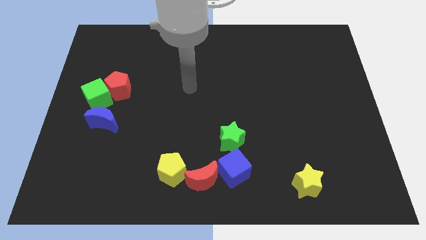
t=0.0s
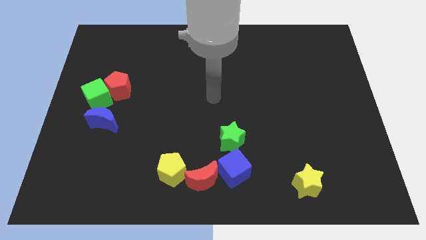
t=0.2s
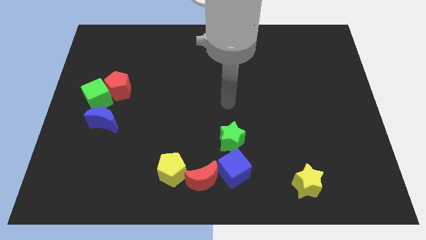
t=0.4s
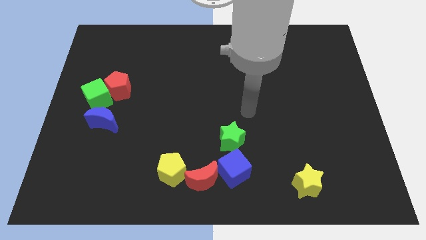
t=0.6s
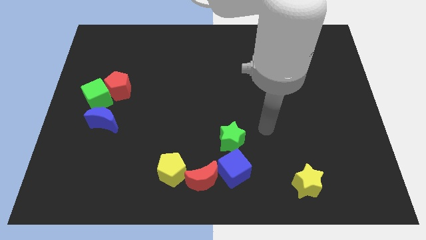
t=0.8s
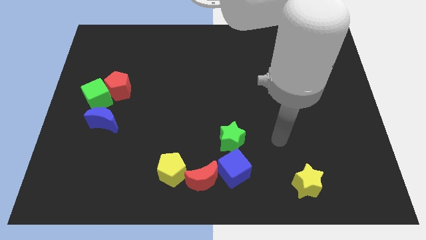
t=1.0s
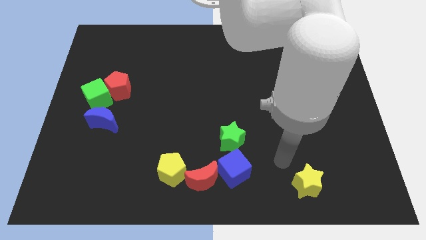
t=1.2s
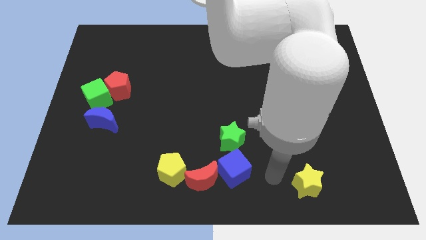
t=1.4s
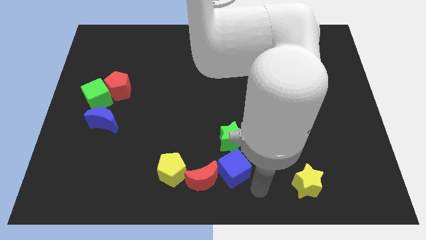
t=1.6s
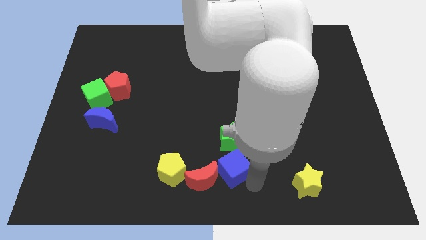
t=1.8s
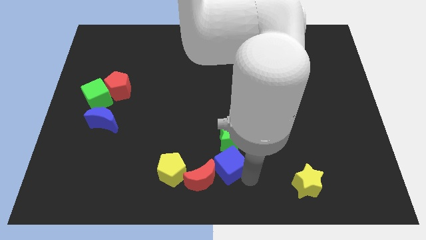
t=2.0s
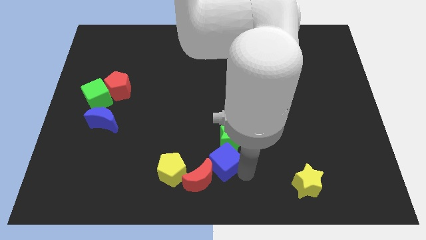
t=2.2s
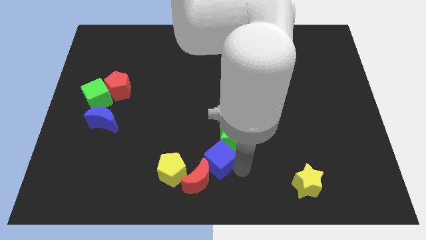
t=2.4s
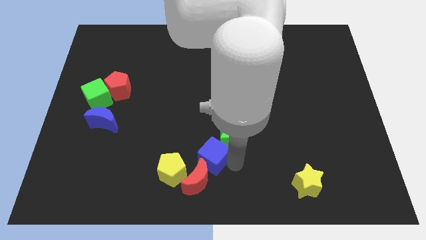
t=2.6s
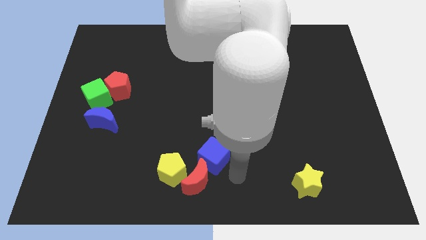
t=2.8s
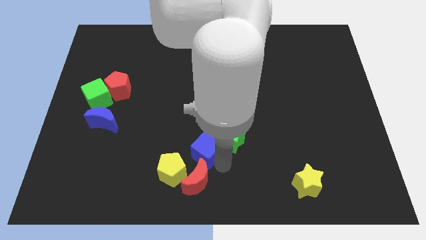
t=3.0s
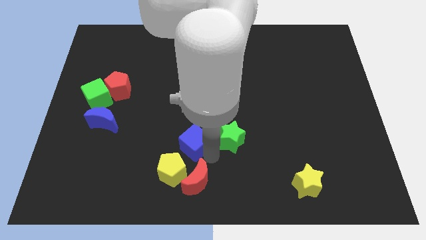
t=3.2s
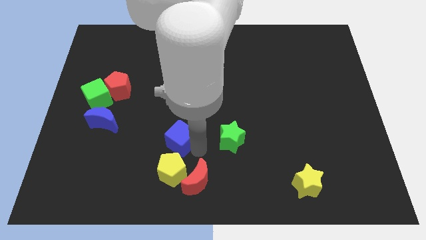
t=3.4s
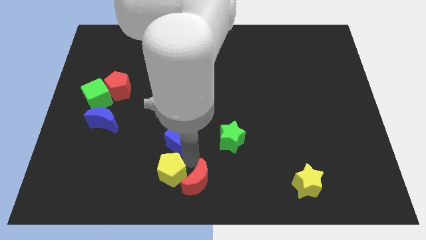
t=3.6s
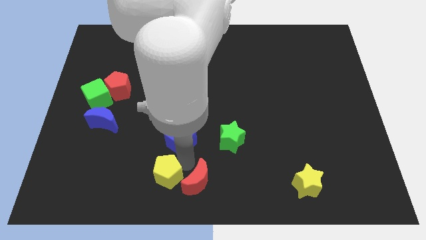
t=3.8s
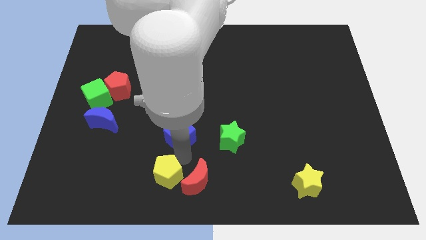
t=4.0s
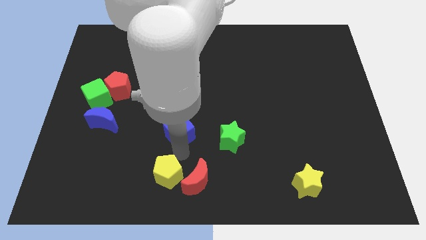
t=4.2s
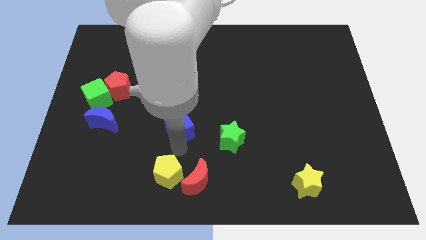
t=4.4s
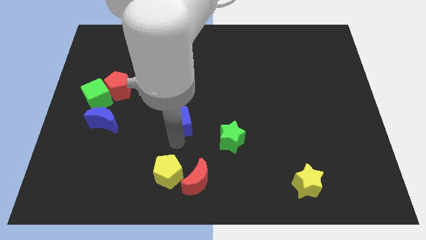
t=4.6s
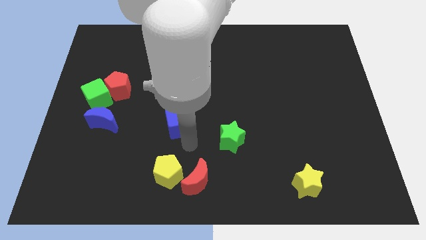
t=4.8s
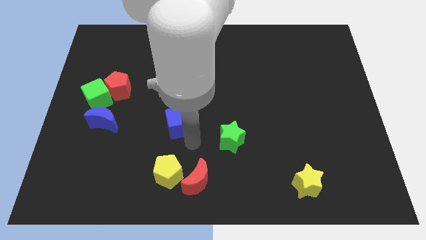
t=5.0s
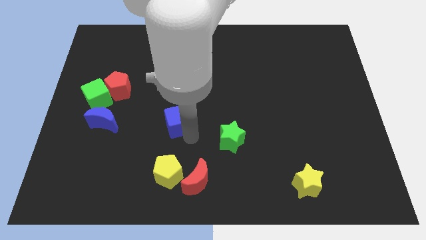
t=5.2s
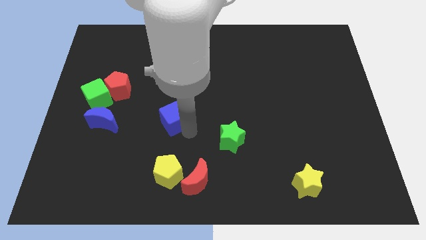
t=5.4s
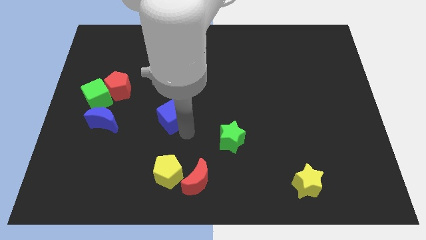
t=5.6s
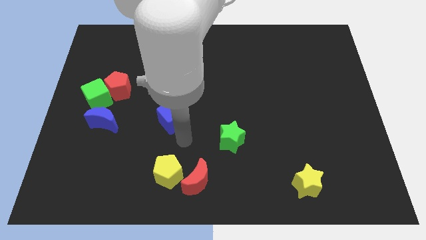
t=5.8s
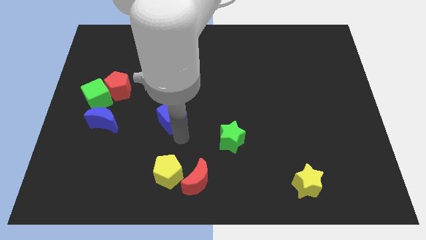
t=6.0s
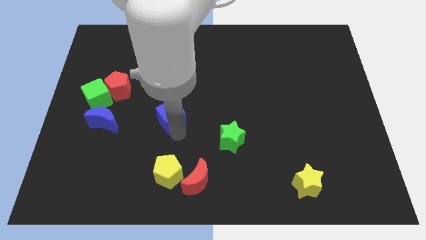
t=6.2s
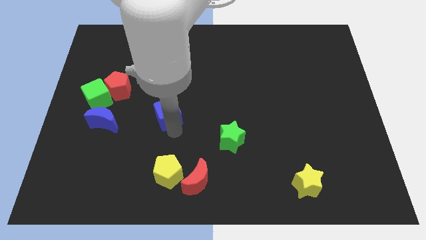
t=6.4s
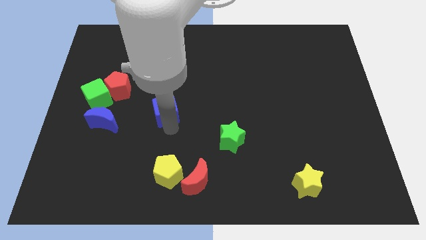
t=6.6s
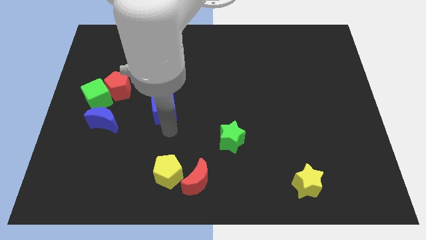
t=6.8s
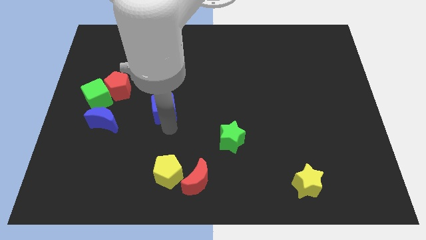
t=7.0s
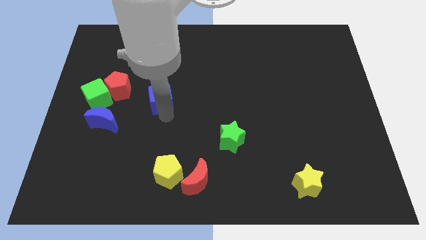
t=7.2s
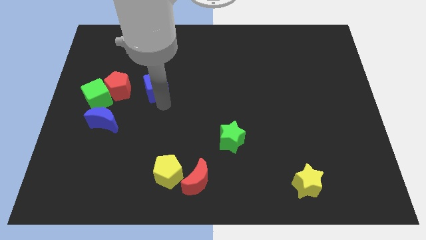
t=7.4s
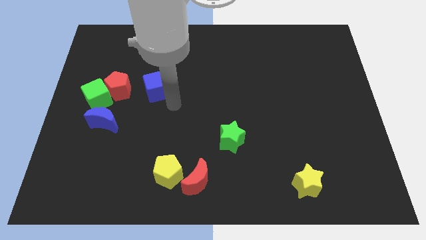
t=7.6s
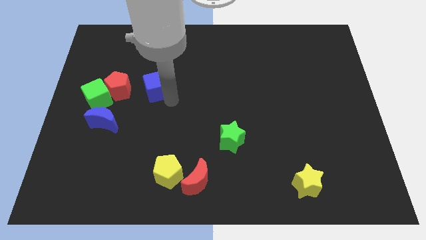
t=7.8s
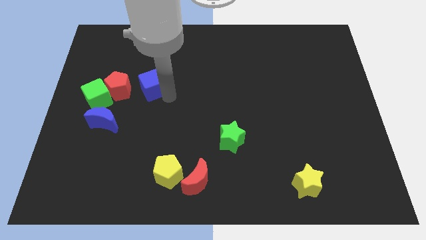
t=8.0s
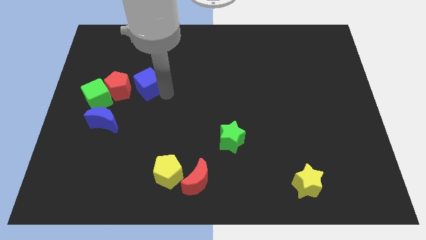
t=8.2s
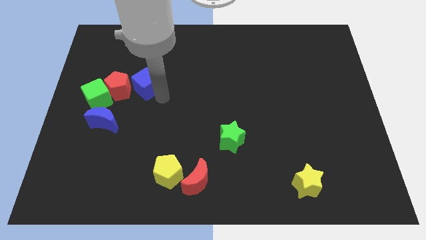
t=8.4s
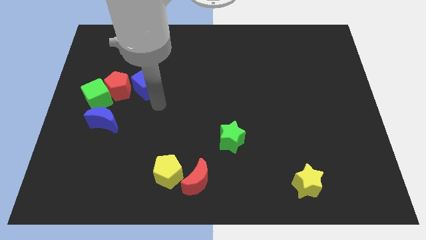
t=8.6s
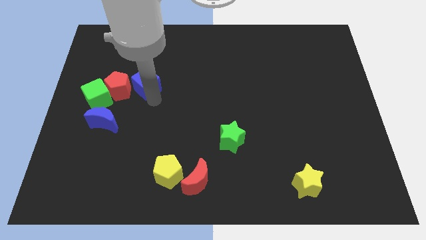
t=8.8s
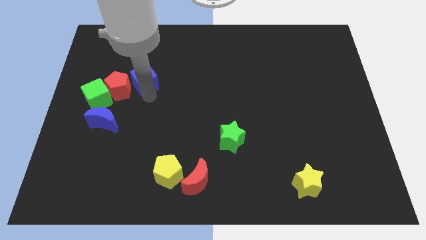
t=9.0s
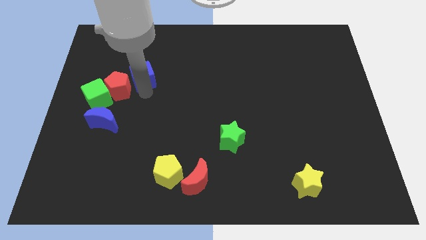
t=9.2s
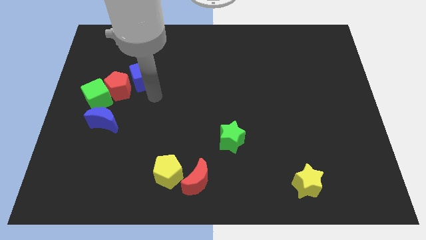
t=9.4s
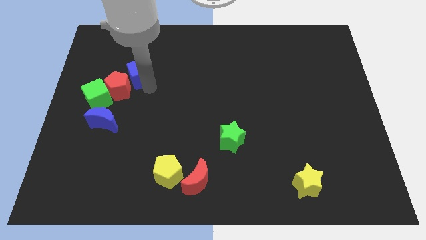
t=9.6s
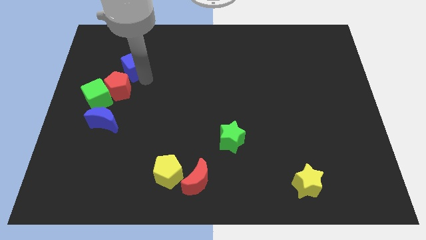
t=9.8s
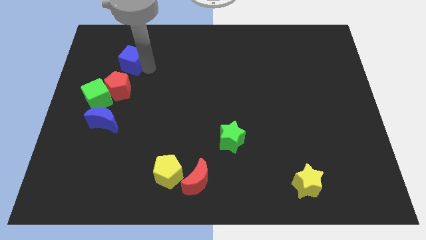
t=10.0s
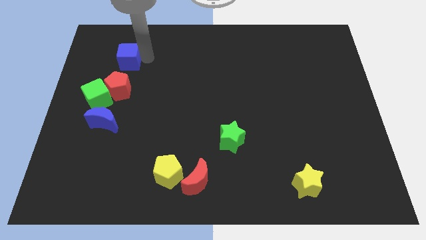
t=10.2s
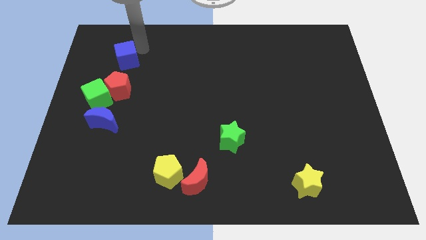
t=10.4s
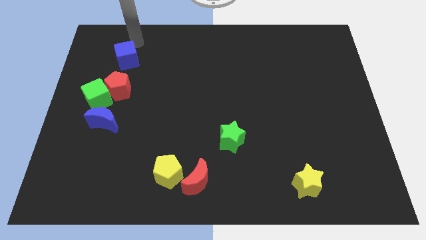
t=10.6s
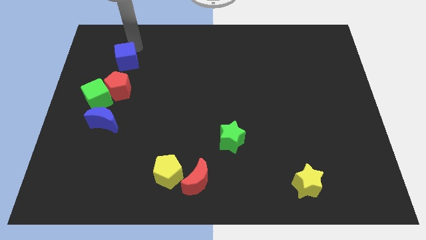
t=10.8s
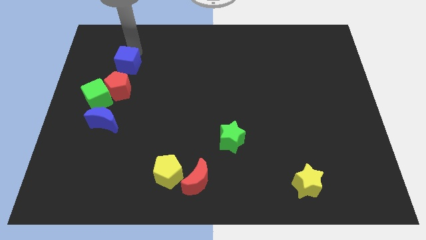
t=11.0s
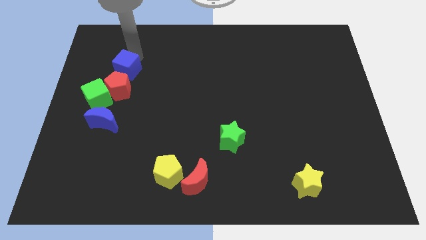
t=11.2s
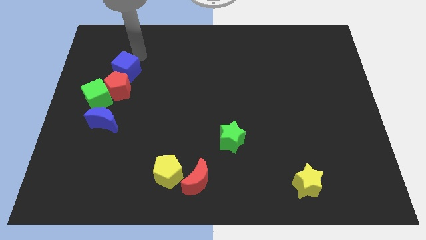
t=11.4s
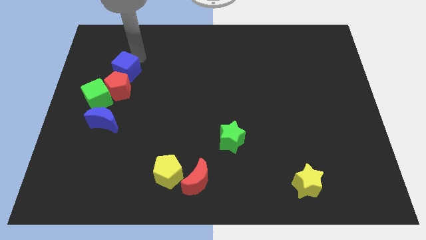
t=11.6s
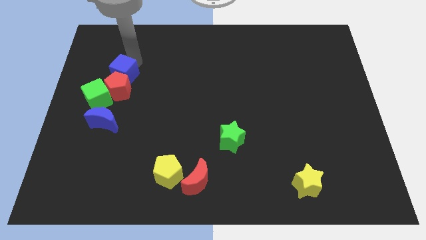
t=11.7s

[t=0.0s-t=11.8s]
put the blue cube to the top of the blue moon
